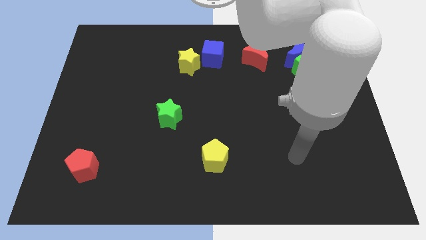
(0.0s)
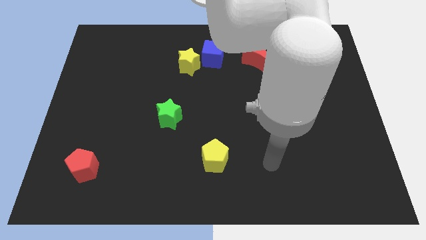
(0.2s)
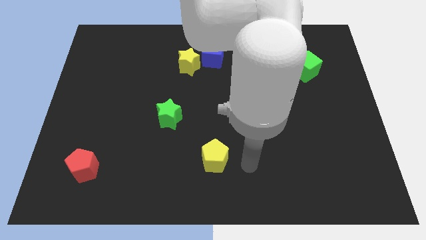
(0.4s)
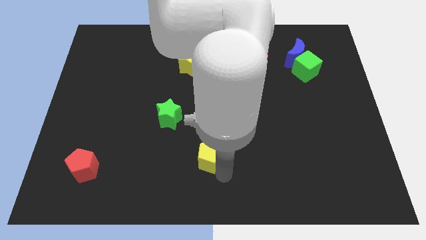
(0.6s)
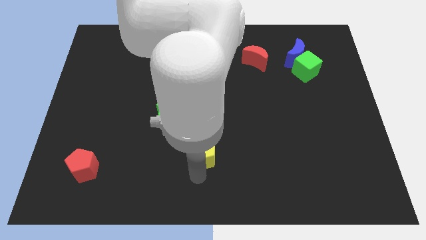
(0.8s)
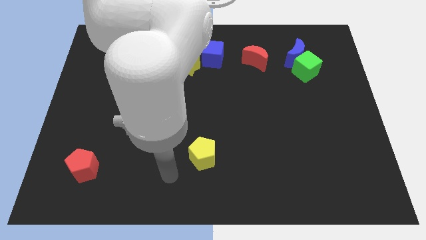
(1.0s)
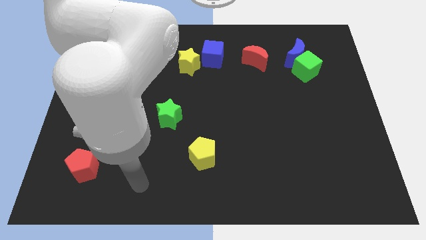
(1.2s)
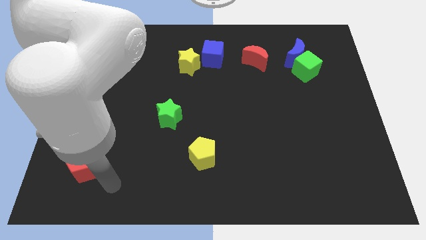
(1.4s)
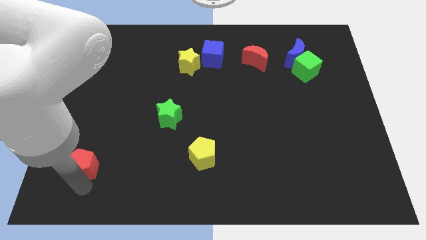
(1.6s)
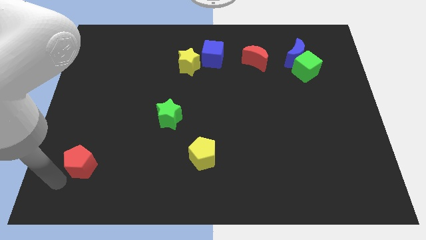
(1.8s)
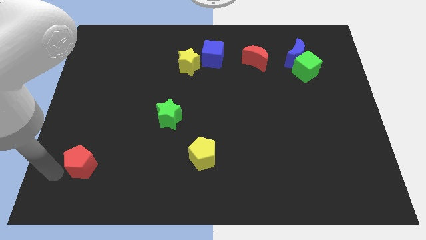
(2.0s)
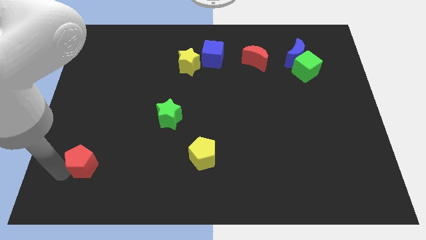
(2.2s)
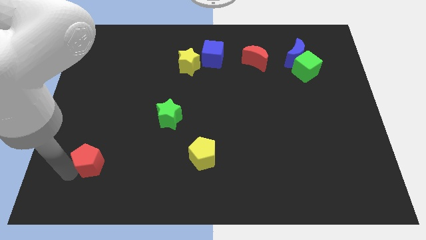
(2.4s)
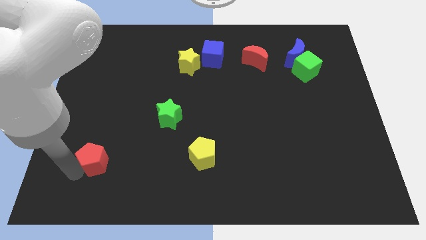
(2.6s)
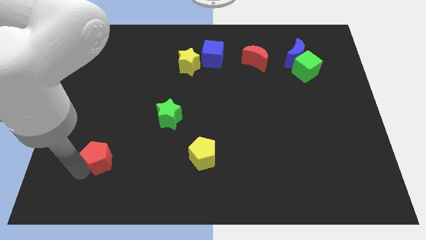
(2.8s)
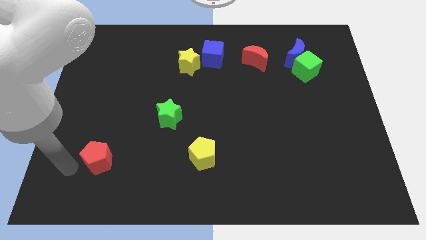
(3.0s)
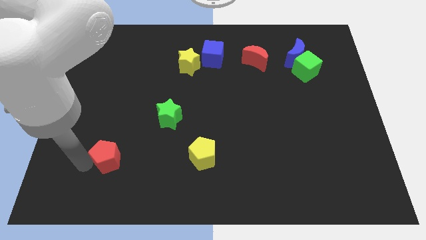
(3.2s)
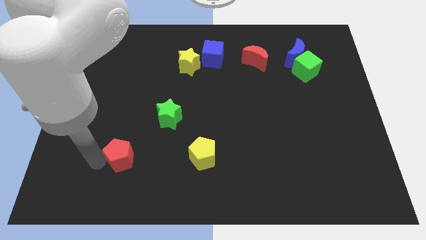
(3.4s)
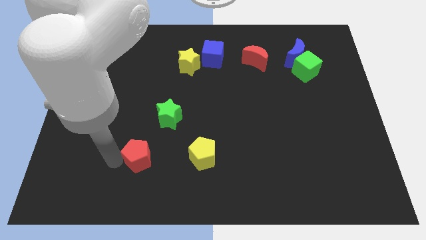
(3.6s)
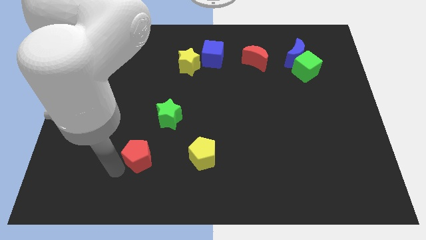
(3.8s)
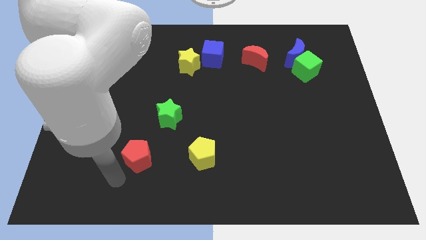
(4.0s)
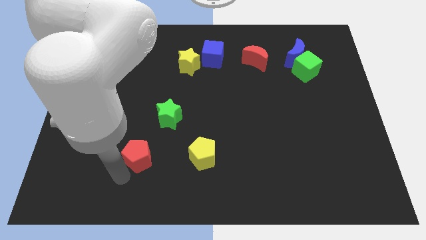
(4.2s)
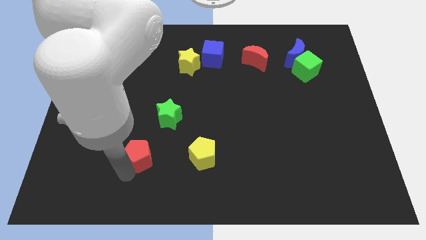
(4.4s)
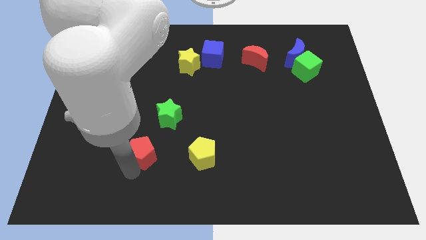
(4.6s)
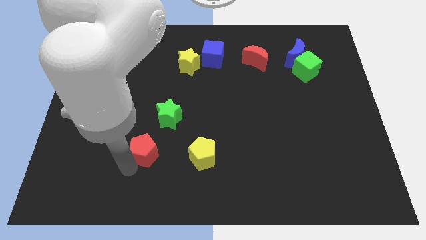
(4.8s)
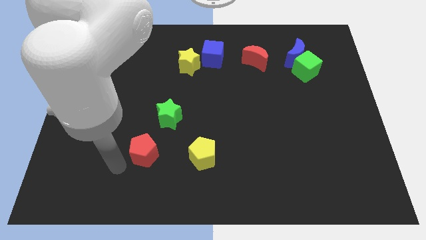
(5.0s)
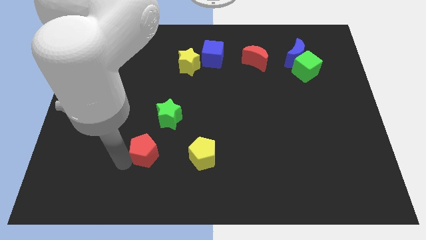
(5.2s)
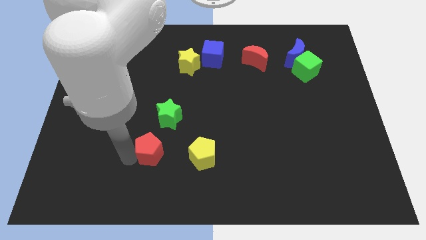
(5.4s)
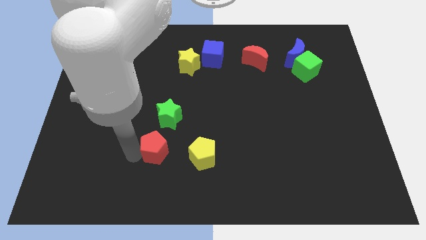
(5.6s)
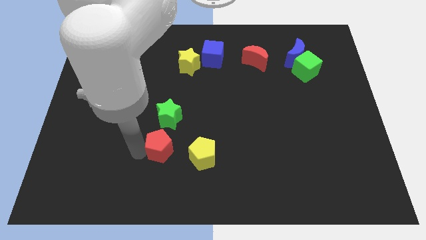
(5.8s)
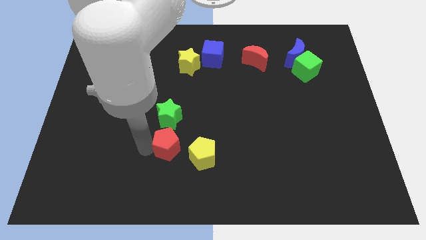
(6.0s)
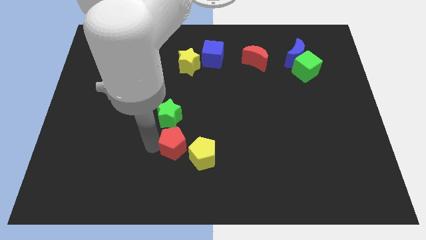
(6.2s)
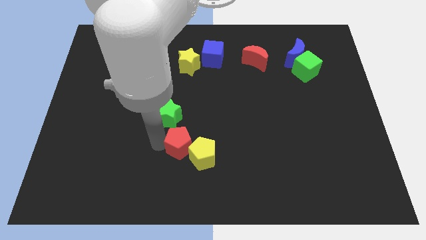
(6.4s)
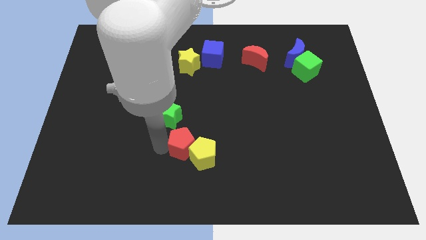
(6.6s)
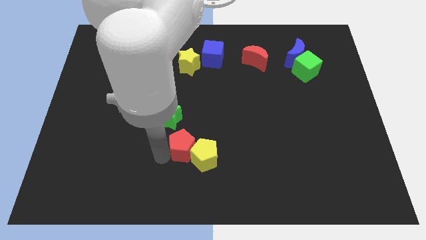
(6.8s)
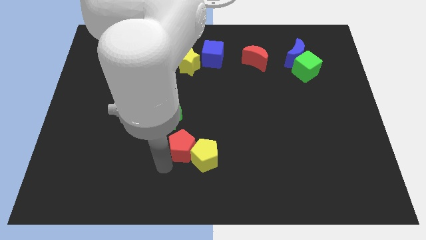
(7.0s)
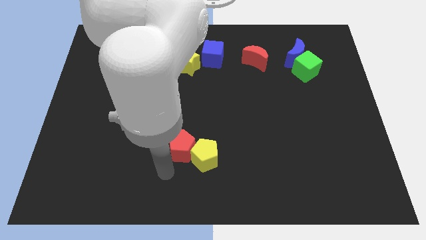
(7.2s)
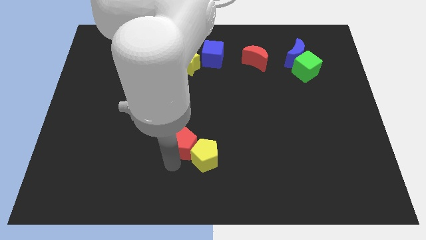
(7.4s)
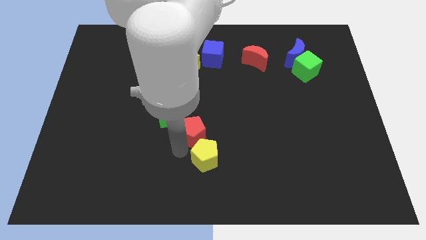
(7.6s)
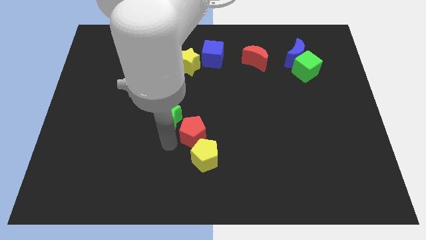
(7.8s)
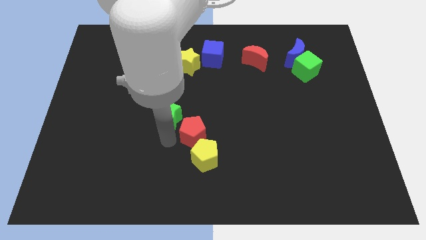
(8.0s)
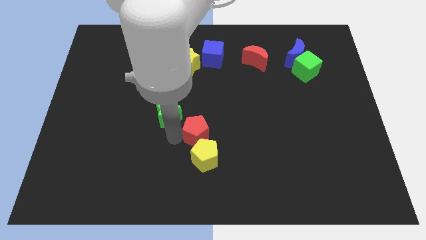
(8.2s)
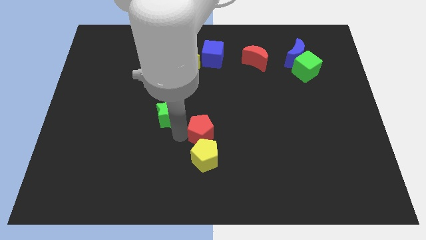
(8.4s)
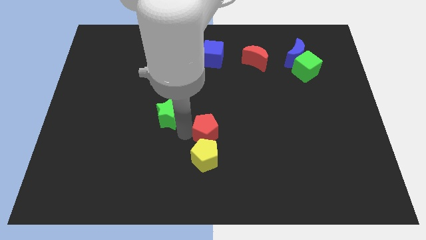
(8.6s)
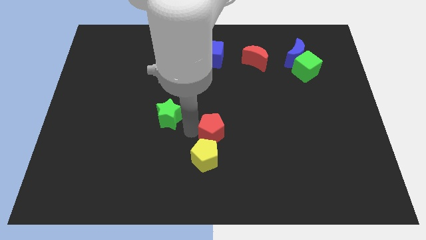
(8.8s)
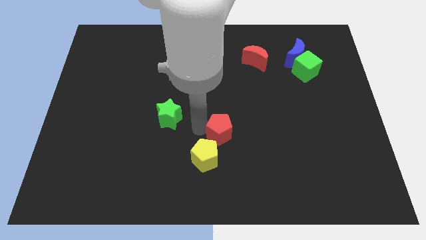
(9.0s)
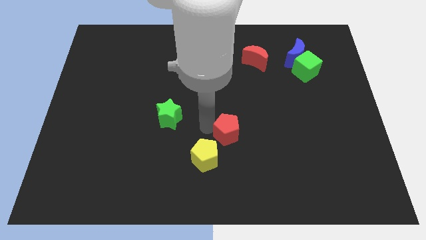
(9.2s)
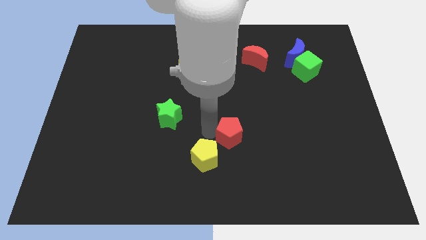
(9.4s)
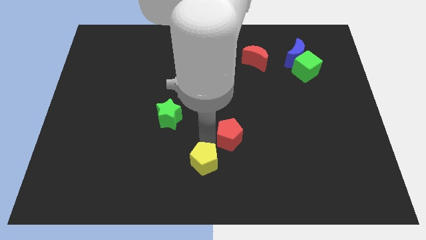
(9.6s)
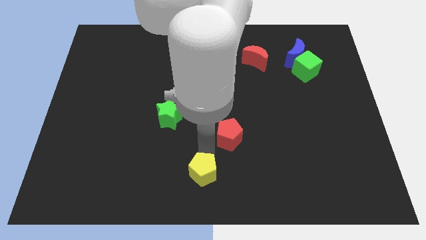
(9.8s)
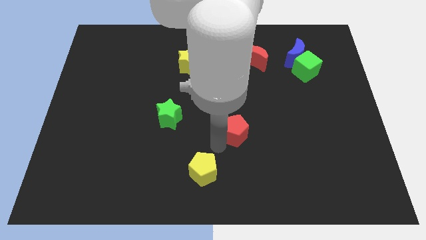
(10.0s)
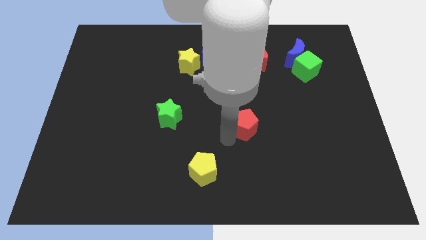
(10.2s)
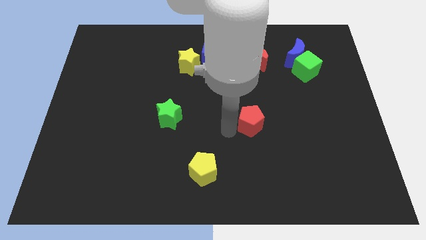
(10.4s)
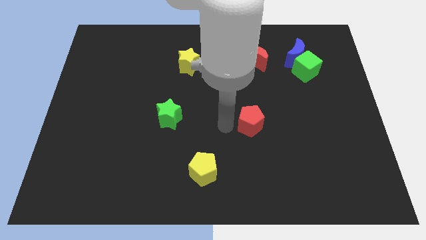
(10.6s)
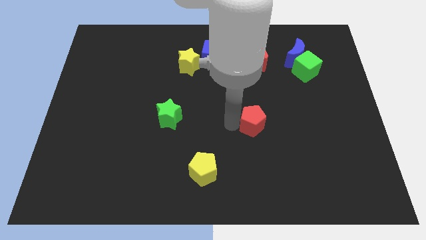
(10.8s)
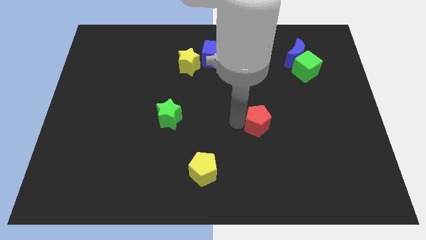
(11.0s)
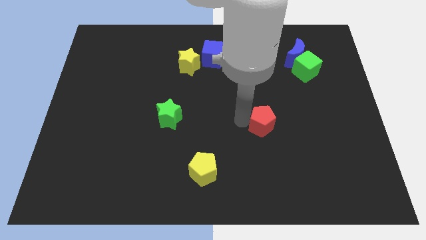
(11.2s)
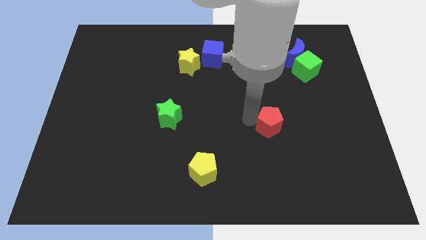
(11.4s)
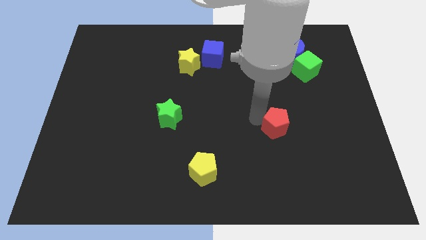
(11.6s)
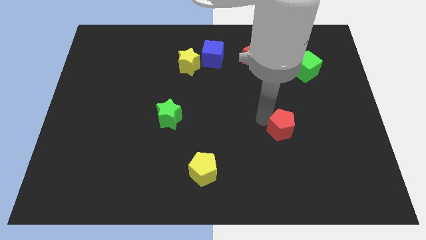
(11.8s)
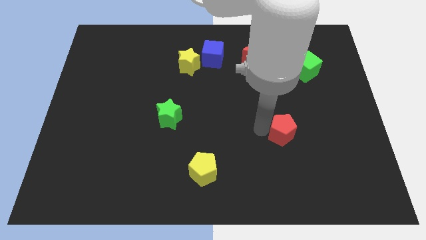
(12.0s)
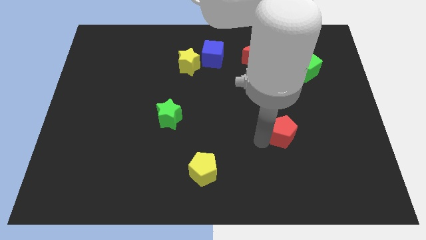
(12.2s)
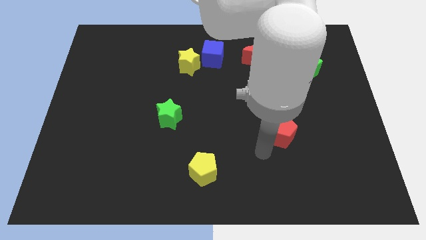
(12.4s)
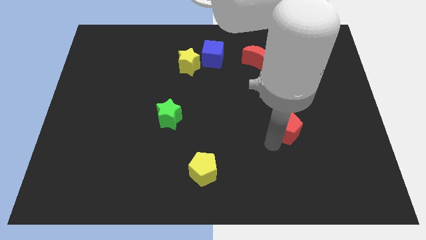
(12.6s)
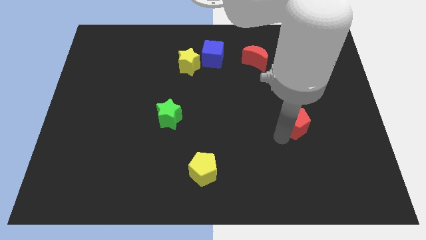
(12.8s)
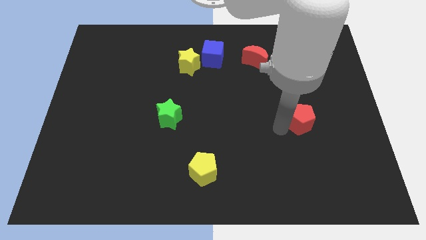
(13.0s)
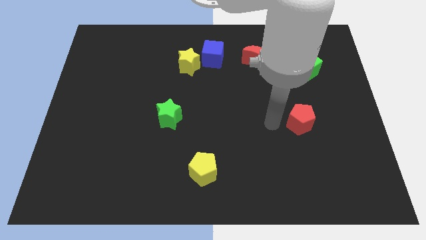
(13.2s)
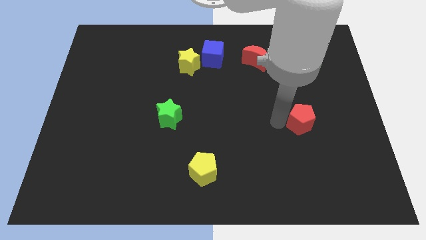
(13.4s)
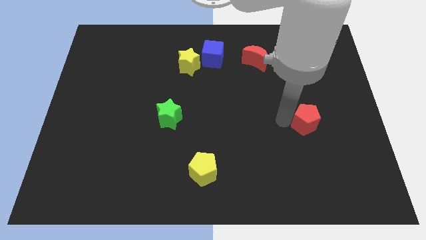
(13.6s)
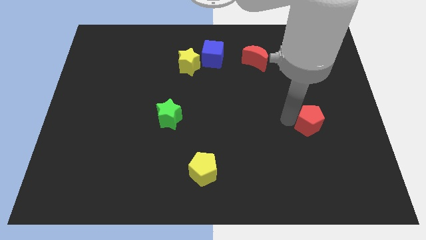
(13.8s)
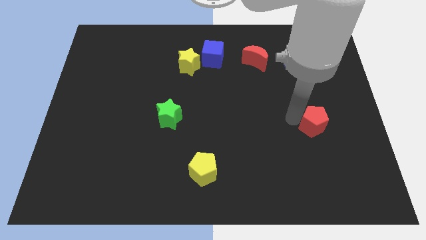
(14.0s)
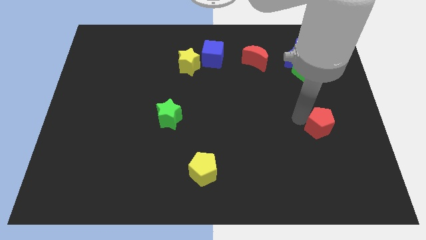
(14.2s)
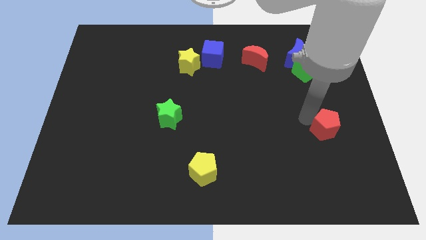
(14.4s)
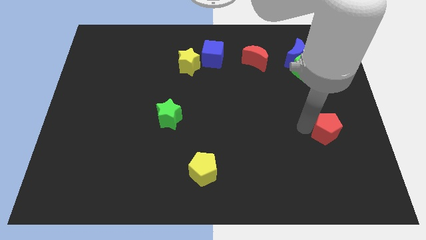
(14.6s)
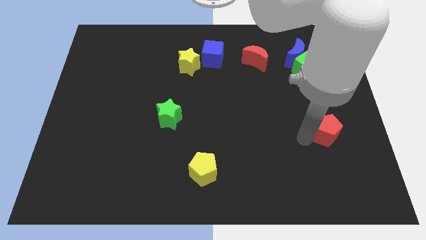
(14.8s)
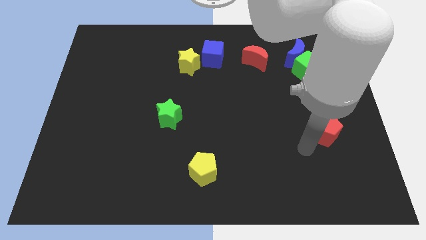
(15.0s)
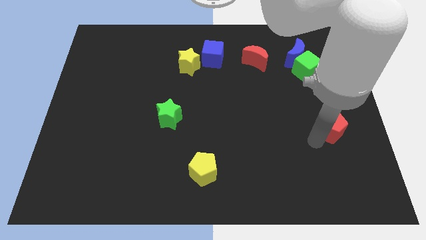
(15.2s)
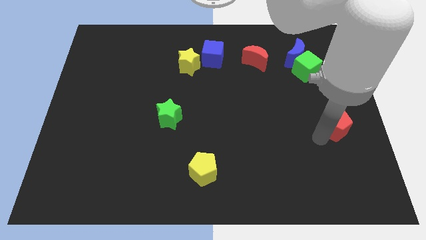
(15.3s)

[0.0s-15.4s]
push the red pentagon to the right side of the board
